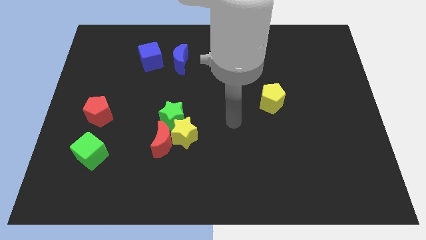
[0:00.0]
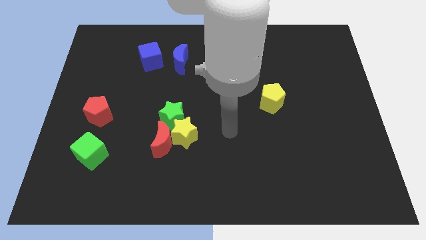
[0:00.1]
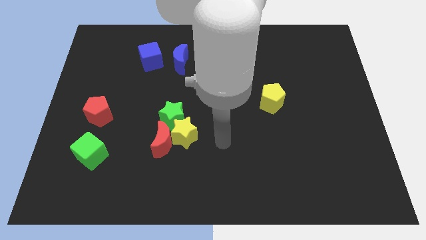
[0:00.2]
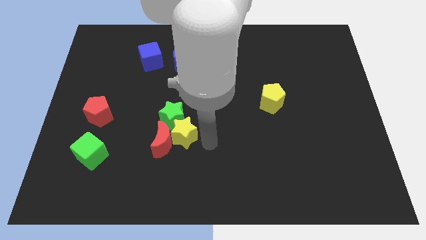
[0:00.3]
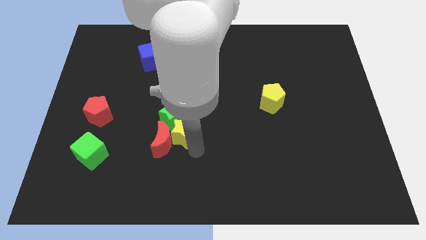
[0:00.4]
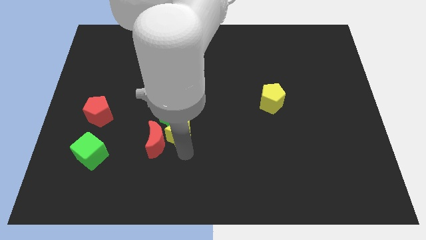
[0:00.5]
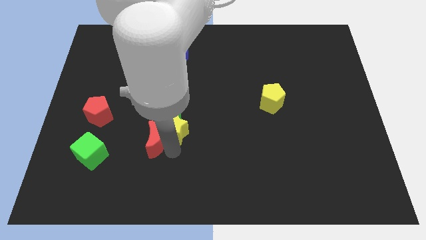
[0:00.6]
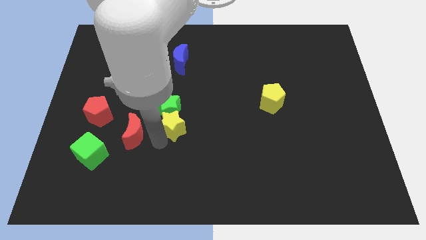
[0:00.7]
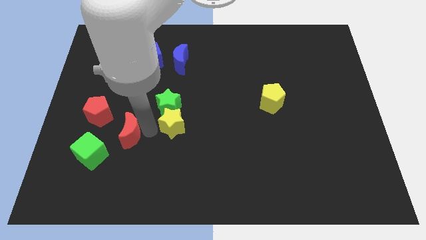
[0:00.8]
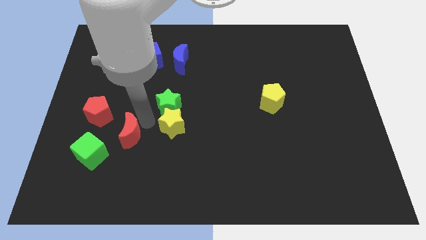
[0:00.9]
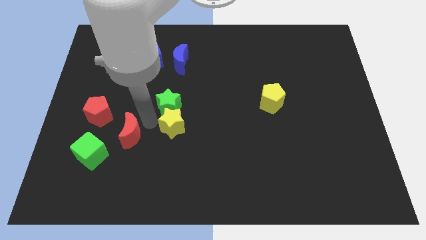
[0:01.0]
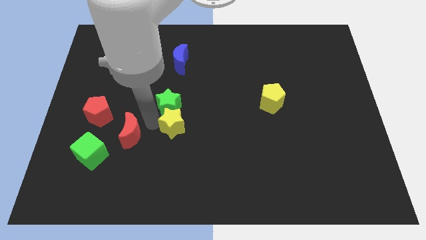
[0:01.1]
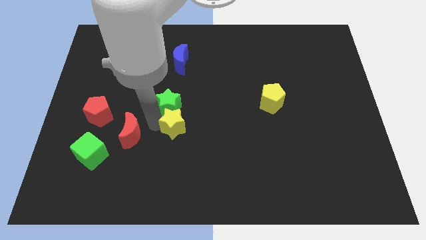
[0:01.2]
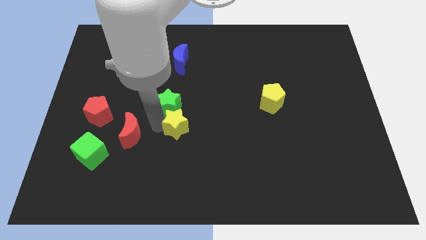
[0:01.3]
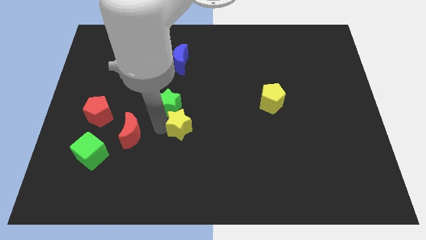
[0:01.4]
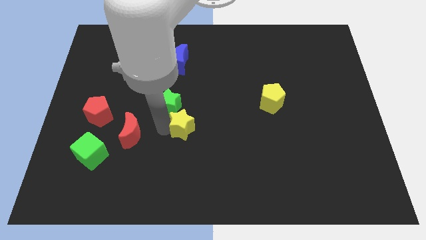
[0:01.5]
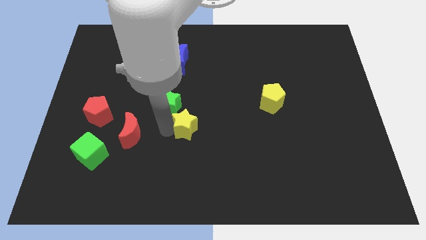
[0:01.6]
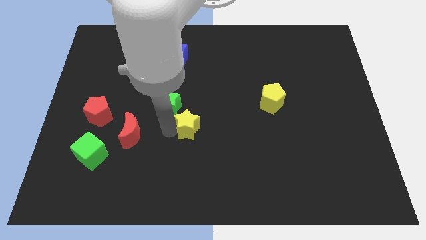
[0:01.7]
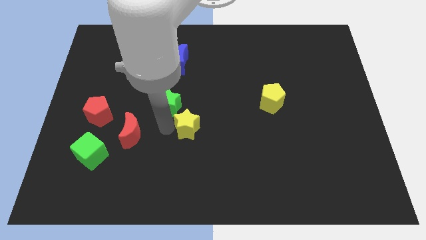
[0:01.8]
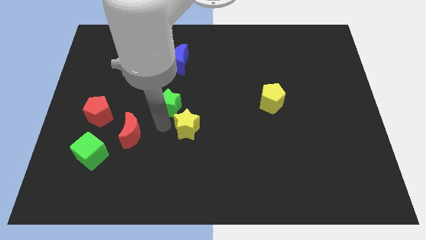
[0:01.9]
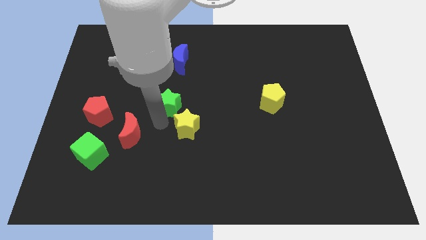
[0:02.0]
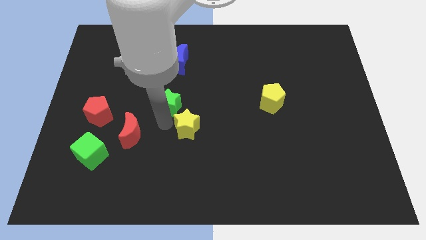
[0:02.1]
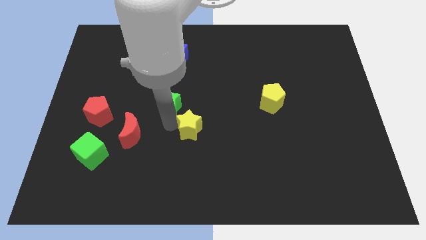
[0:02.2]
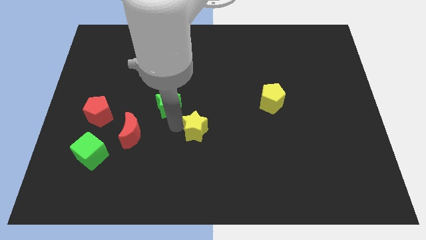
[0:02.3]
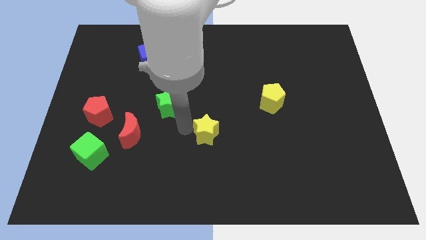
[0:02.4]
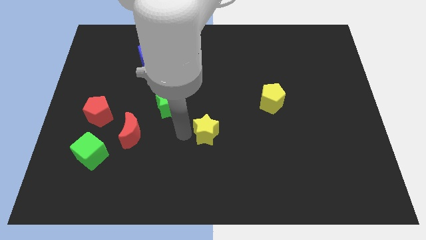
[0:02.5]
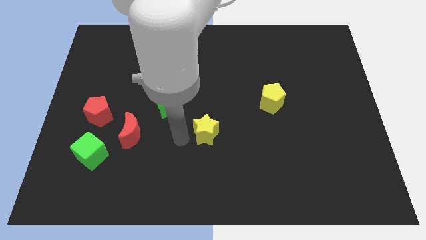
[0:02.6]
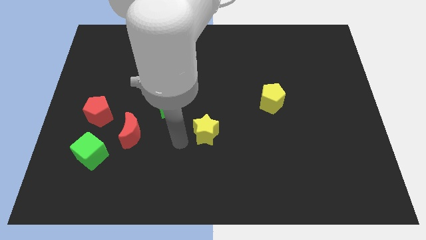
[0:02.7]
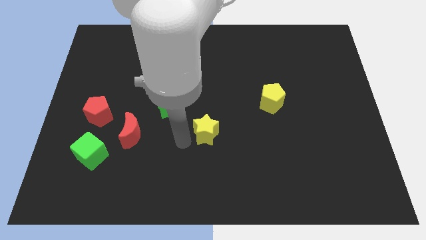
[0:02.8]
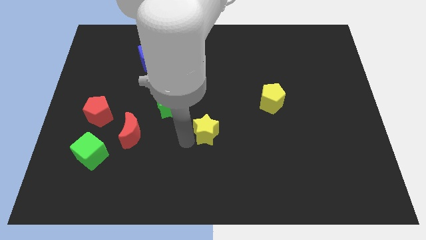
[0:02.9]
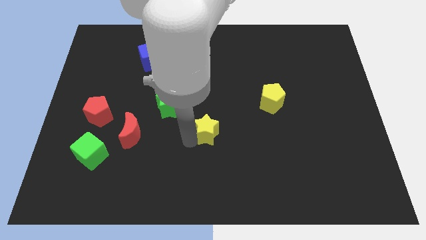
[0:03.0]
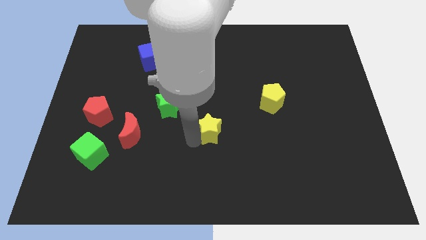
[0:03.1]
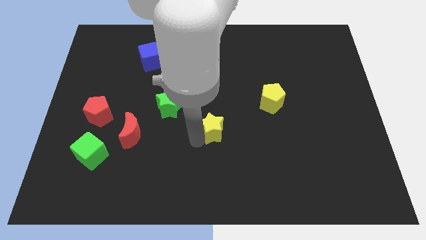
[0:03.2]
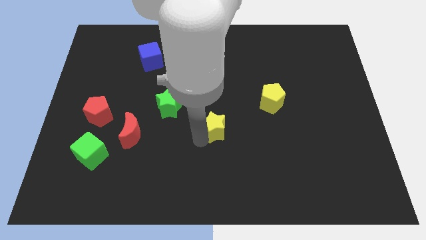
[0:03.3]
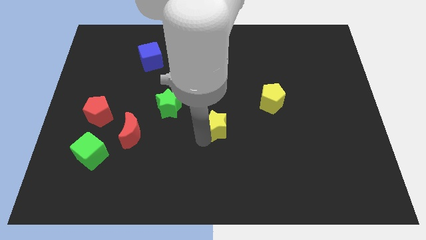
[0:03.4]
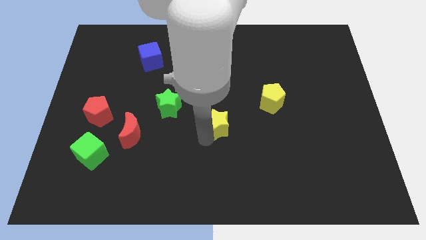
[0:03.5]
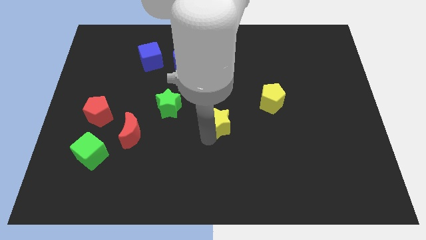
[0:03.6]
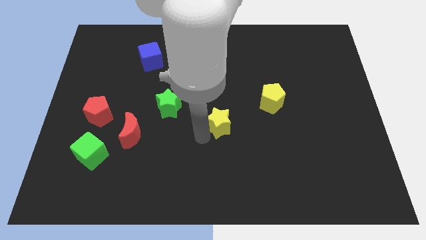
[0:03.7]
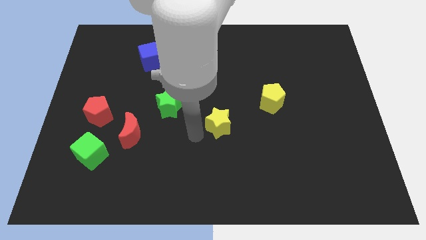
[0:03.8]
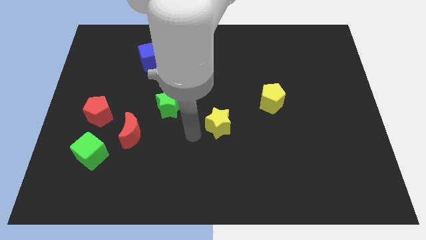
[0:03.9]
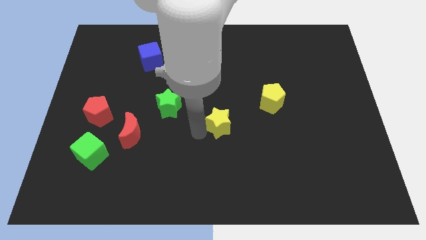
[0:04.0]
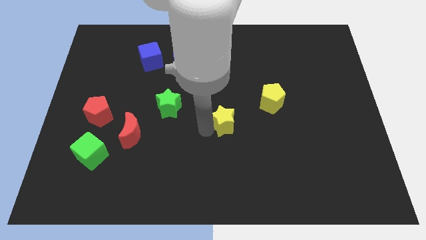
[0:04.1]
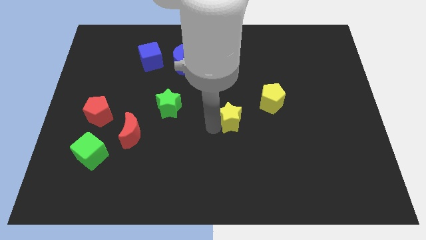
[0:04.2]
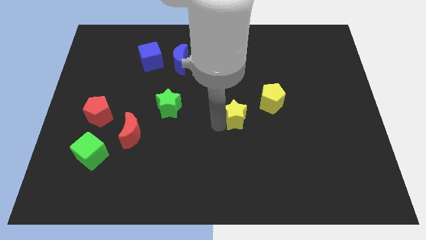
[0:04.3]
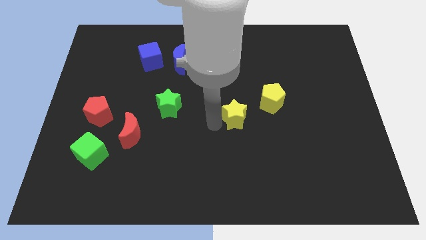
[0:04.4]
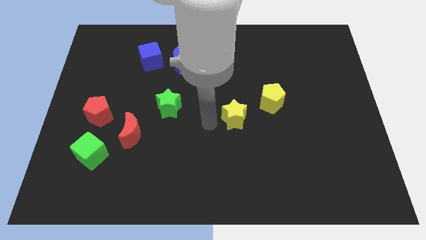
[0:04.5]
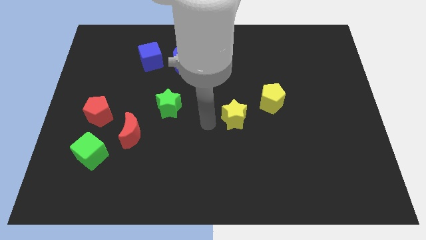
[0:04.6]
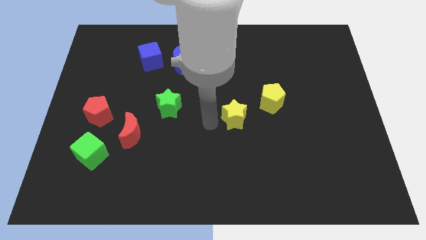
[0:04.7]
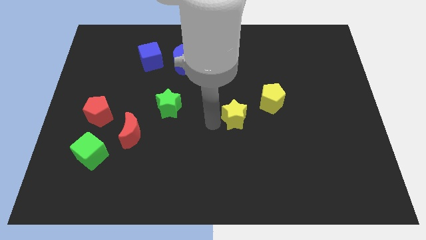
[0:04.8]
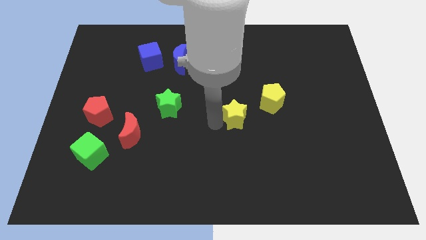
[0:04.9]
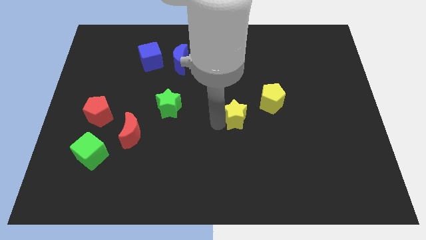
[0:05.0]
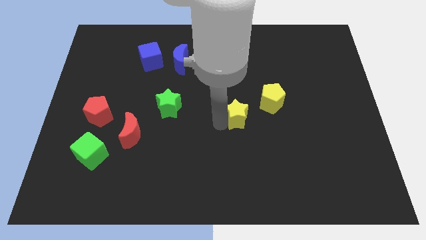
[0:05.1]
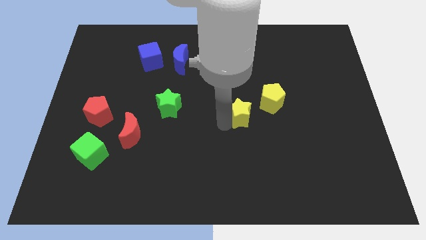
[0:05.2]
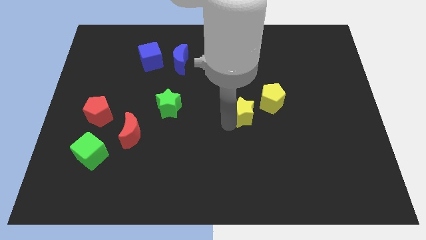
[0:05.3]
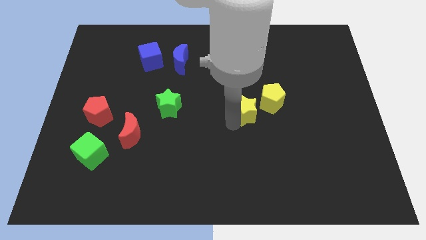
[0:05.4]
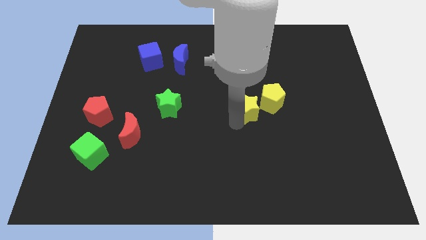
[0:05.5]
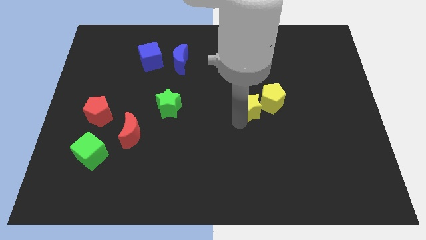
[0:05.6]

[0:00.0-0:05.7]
slide the yellow star next to the yellow pentagon
